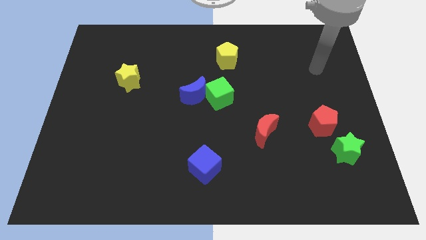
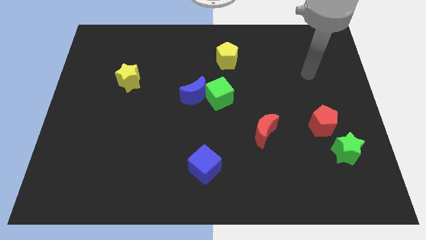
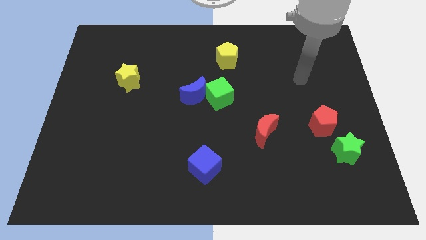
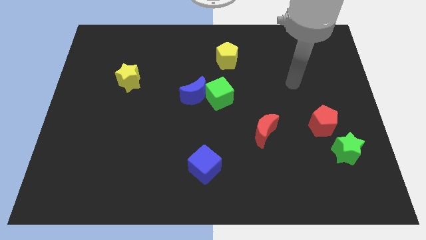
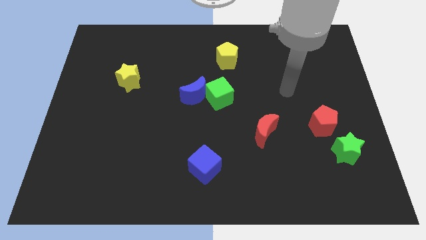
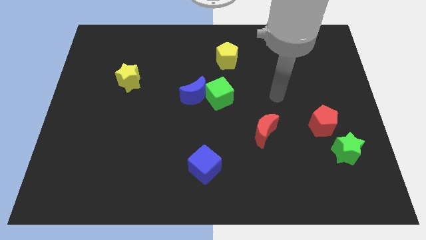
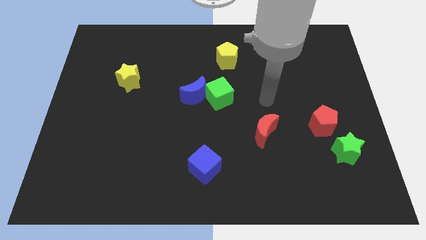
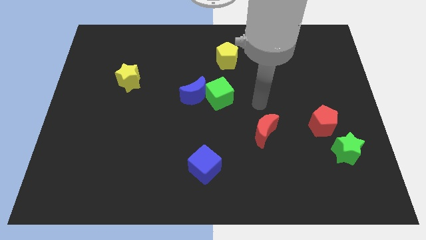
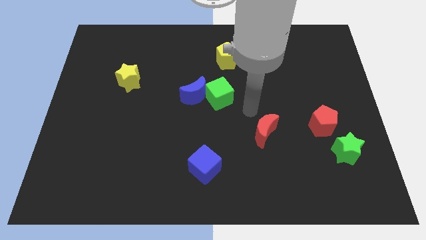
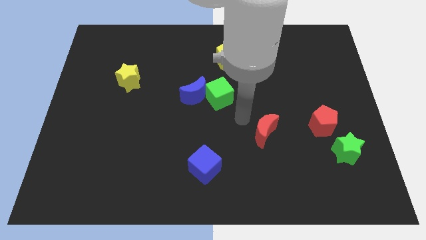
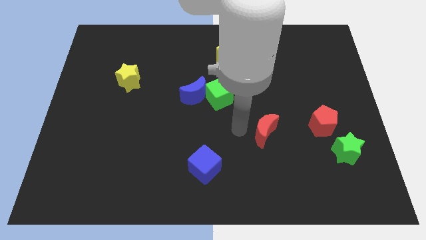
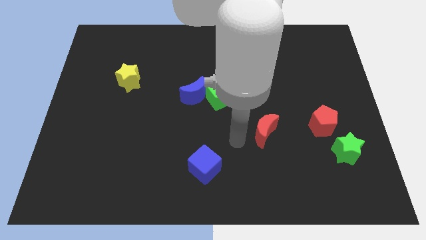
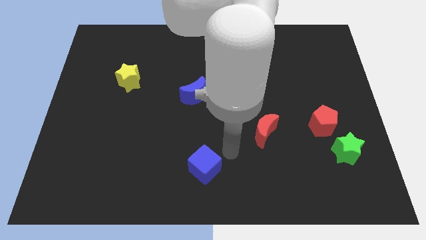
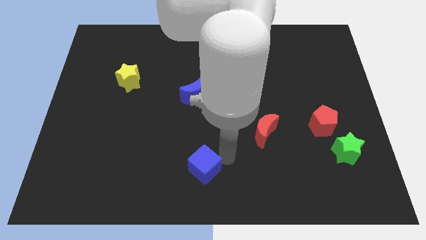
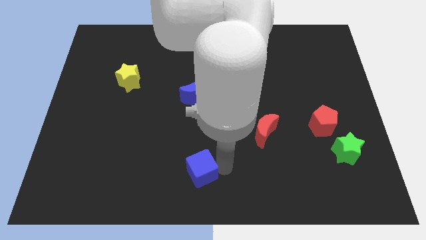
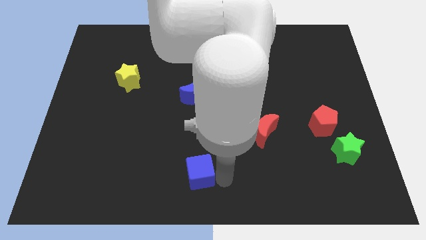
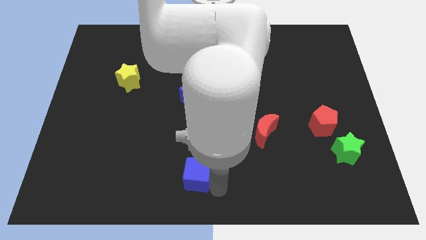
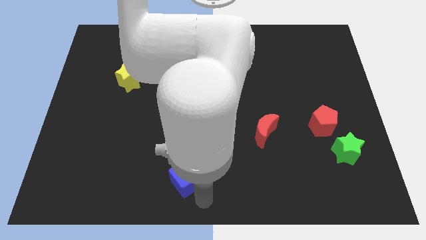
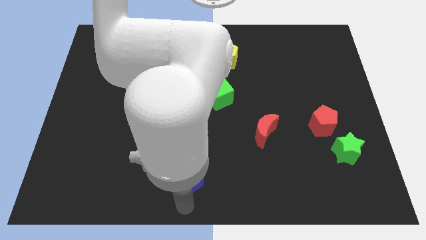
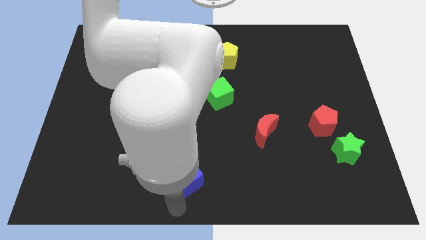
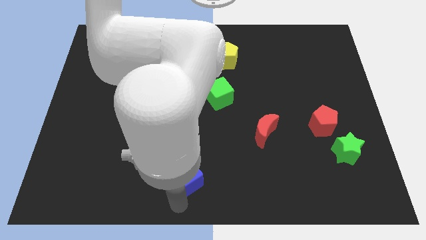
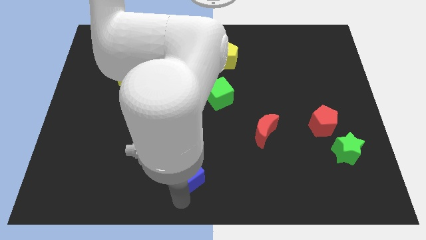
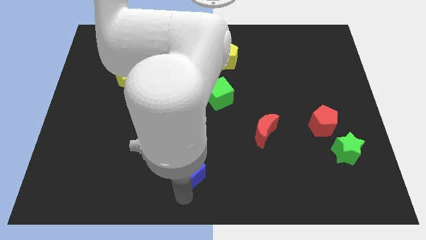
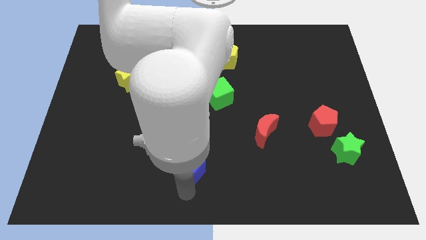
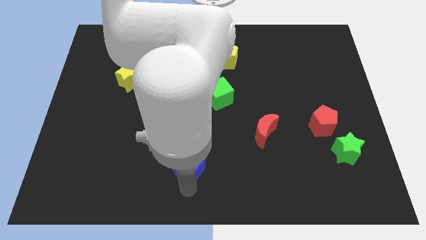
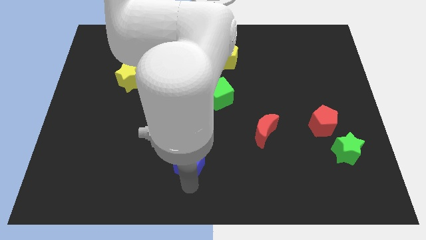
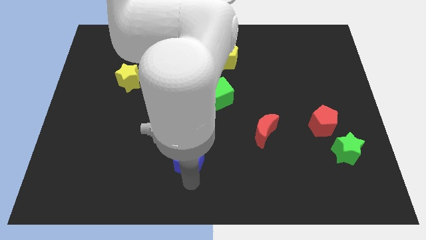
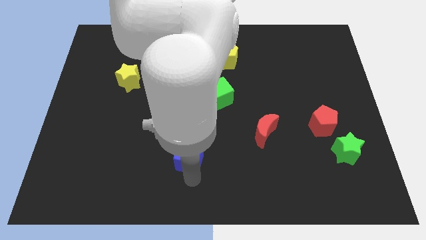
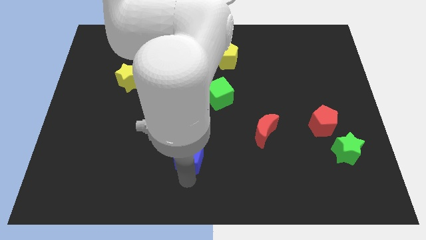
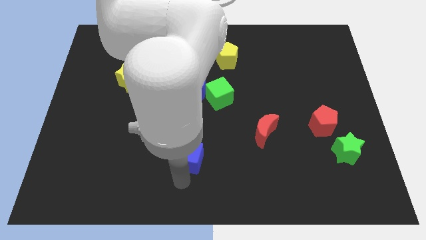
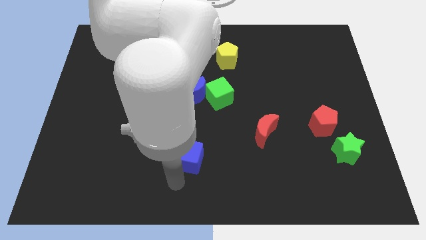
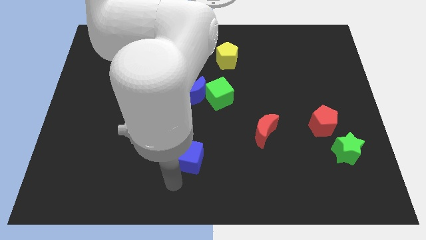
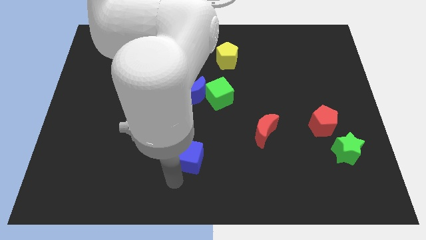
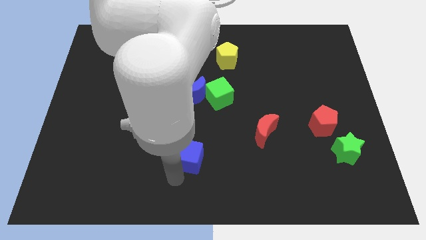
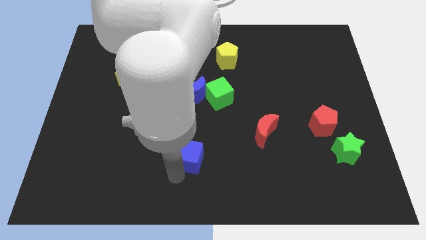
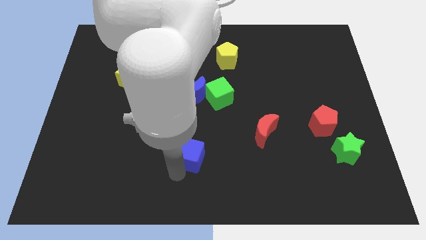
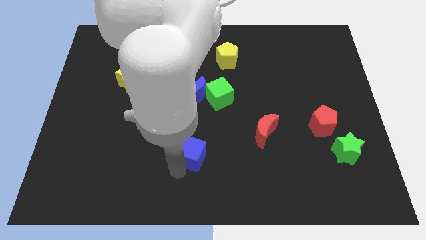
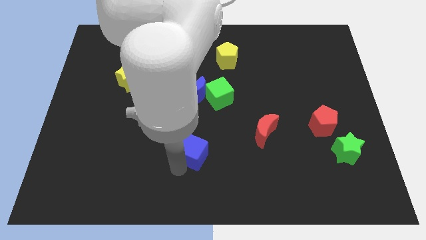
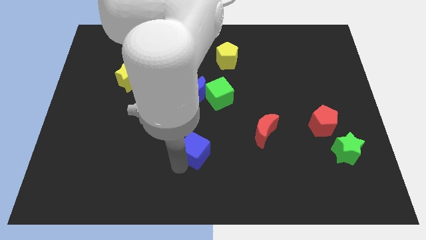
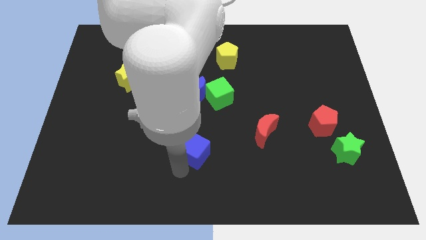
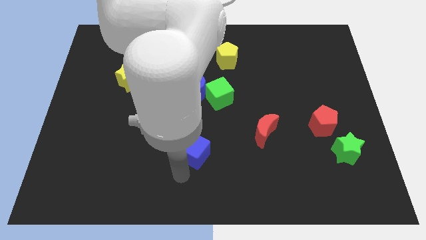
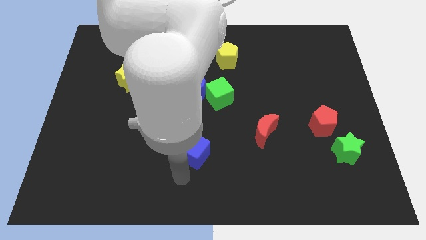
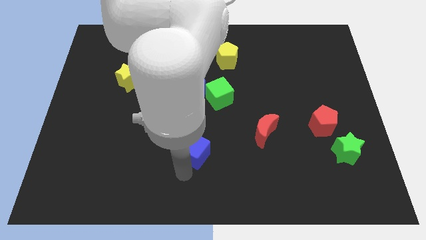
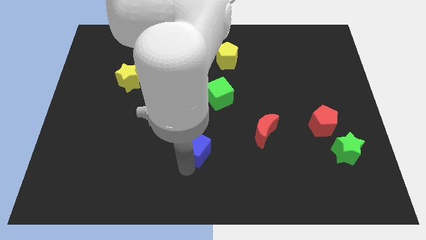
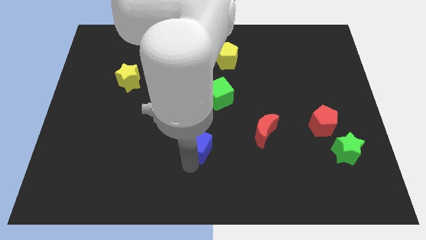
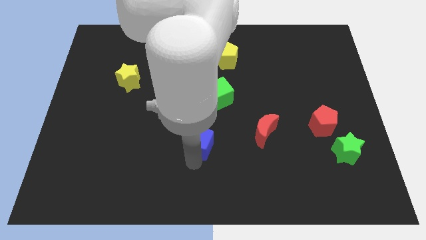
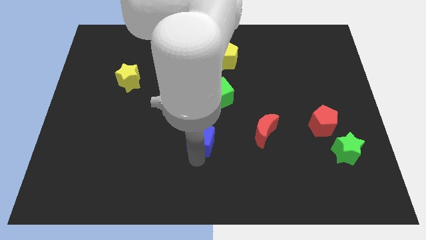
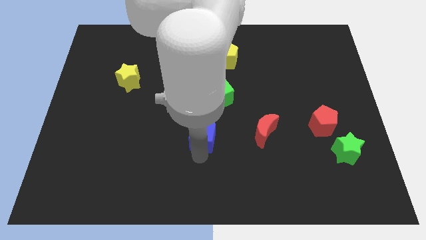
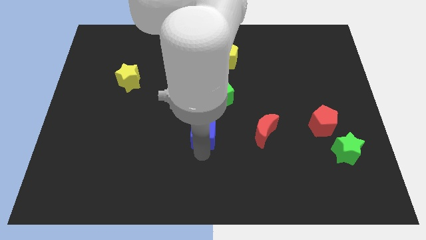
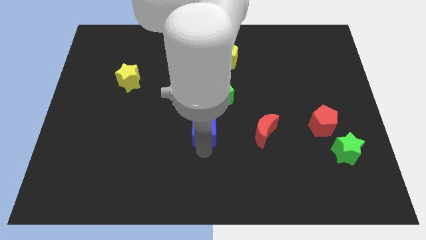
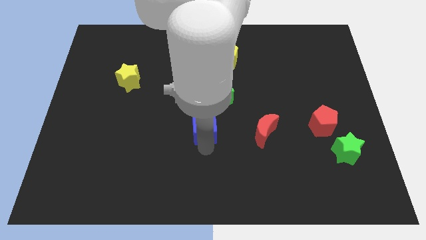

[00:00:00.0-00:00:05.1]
push the blue cube to the bottom left of the green cube

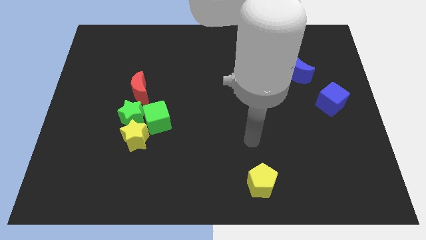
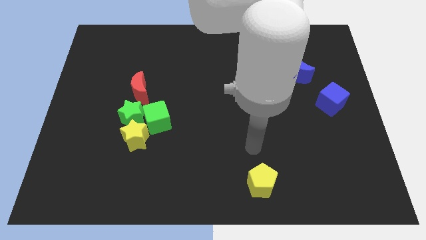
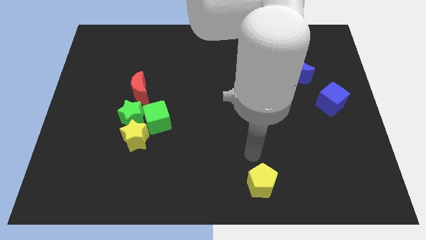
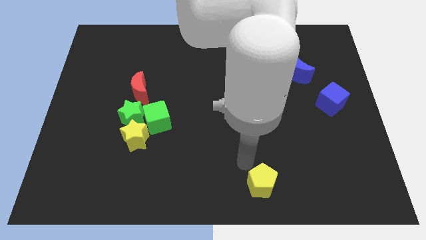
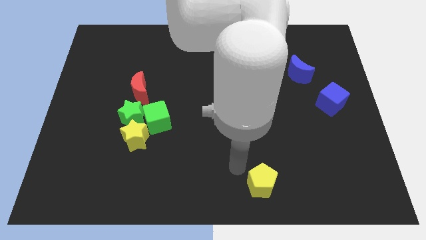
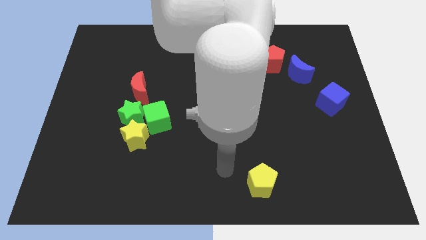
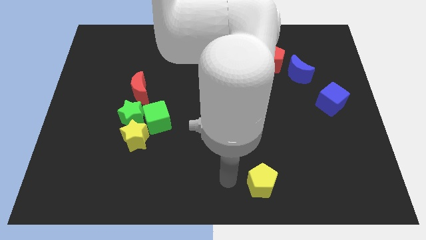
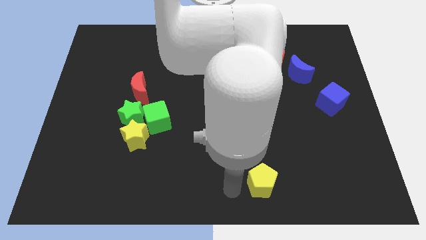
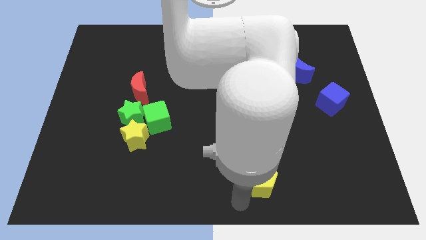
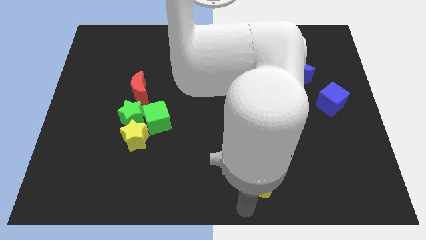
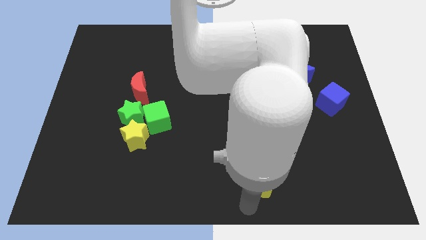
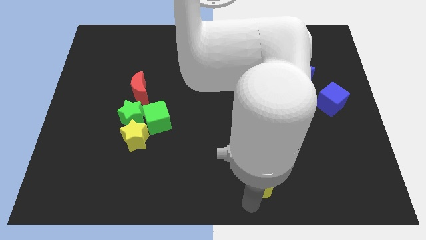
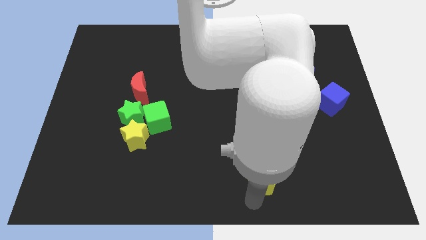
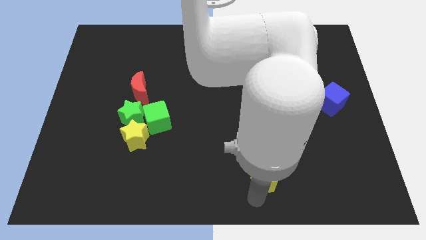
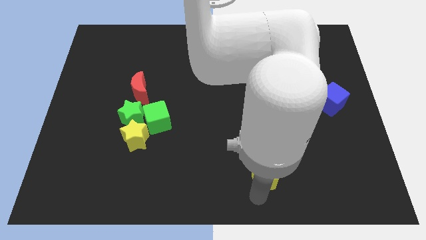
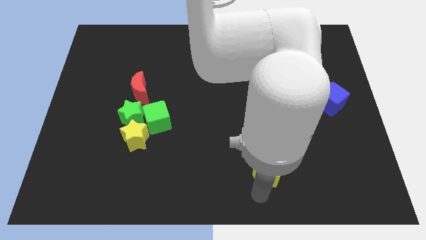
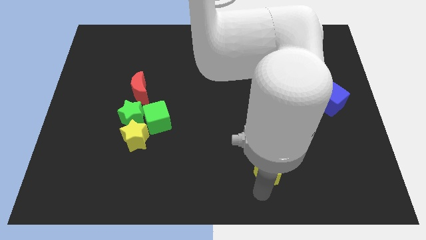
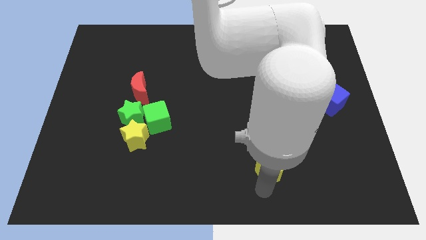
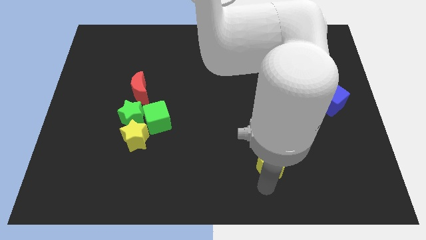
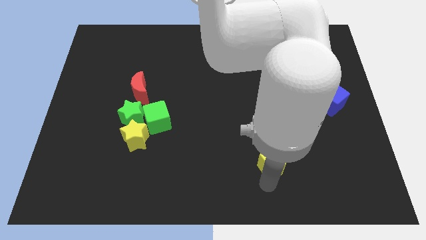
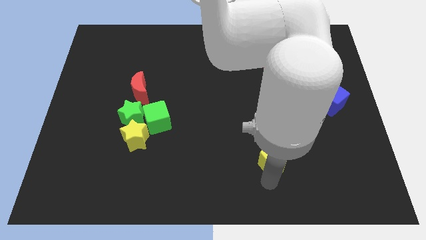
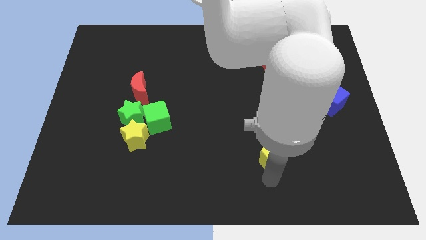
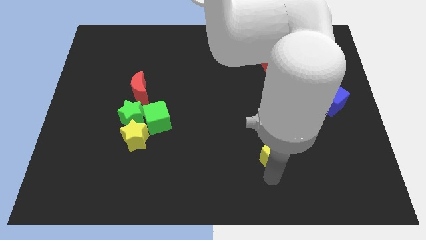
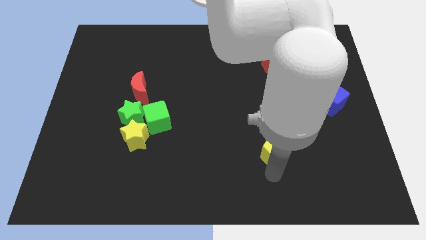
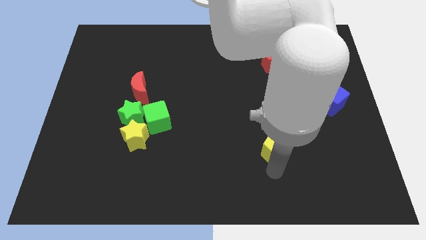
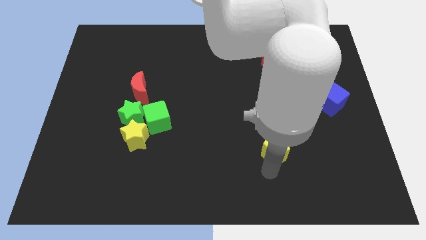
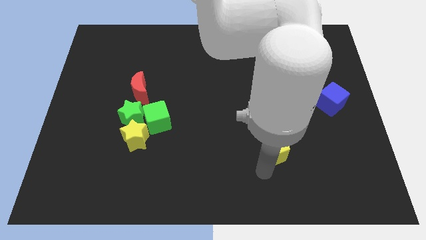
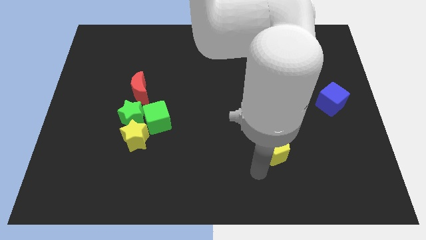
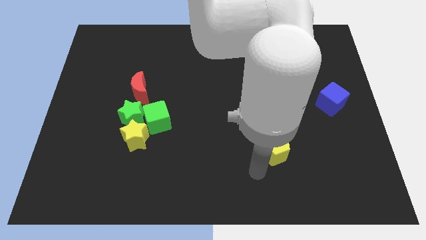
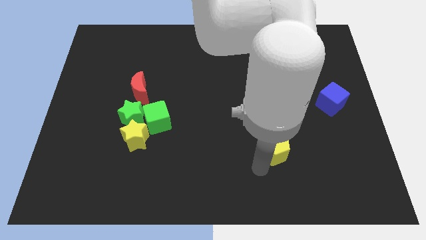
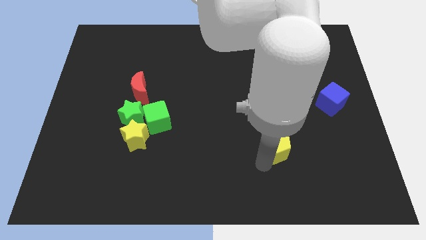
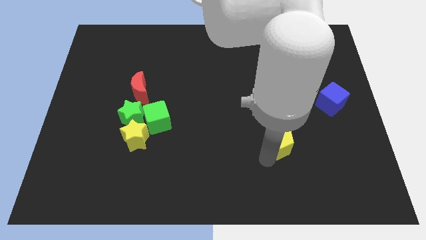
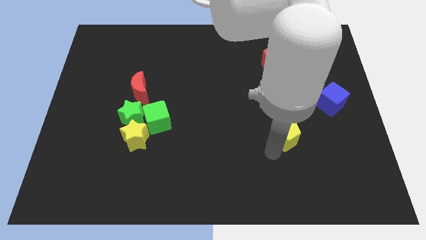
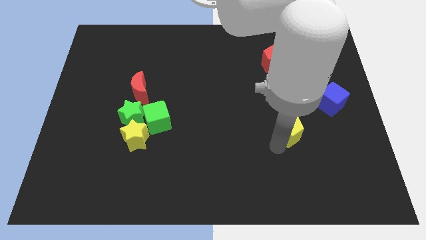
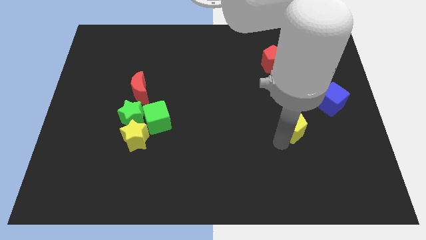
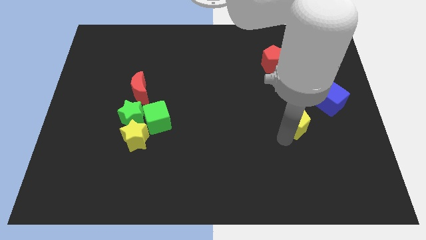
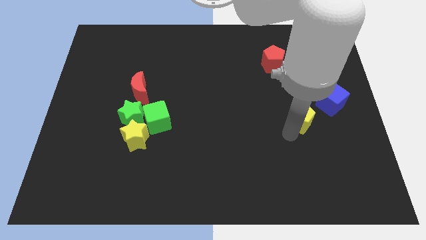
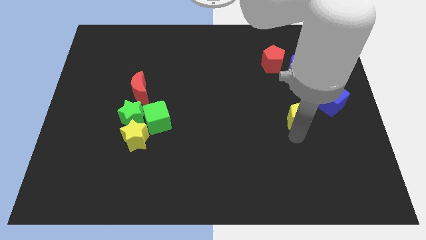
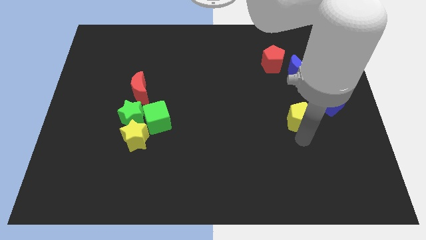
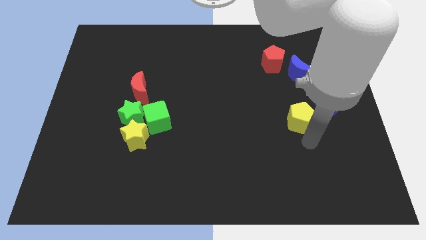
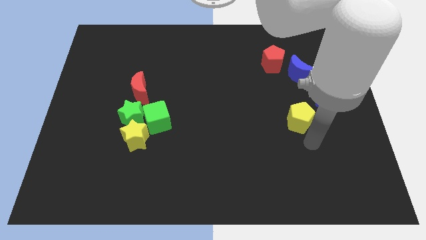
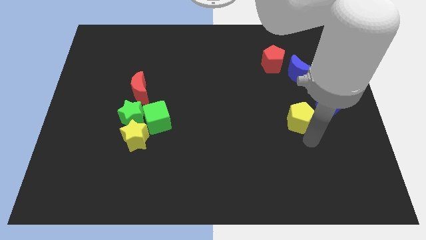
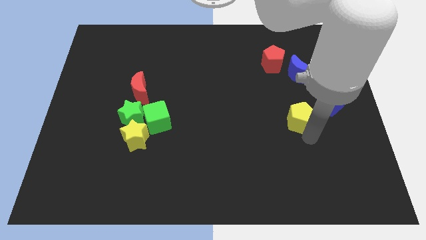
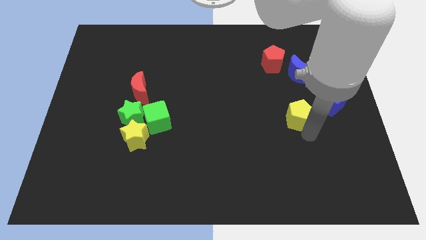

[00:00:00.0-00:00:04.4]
push the yellow pentagon just left of the blue cube
